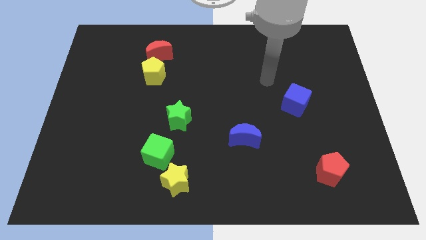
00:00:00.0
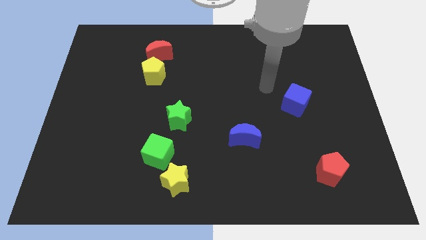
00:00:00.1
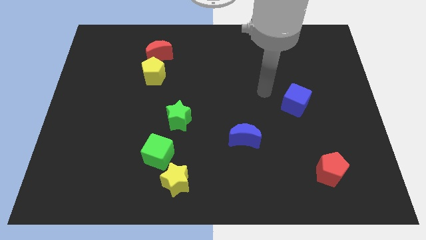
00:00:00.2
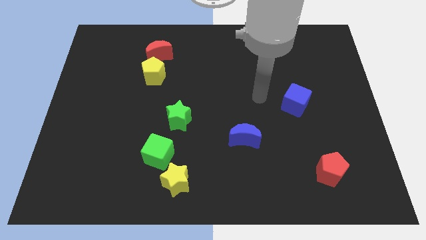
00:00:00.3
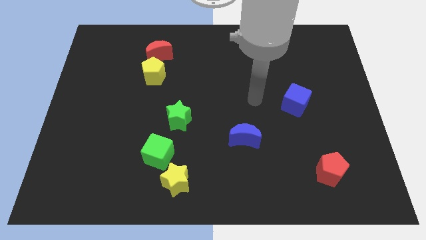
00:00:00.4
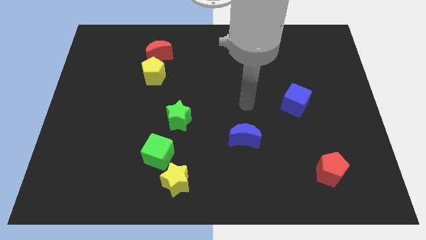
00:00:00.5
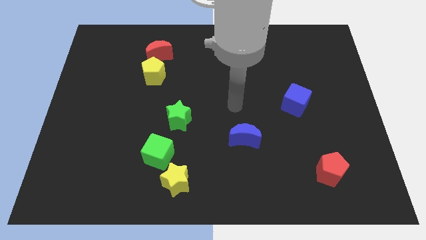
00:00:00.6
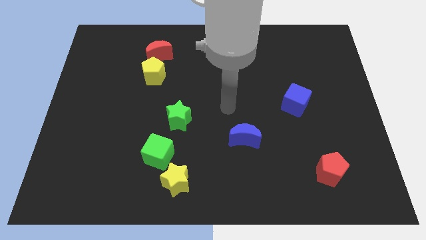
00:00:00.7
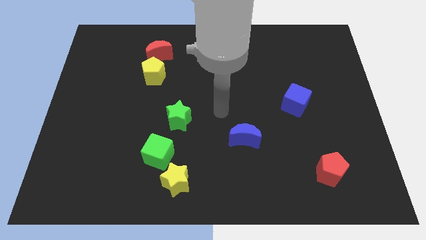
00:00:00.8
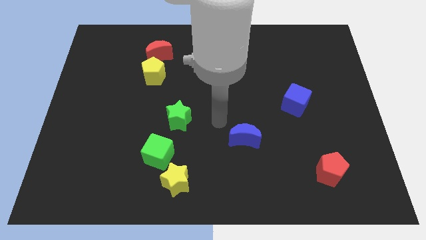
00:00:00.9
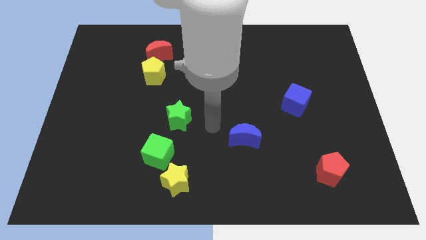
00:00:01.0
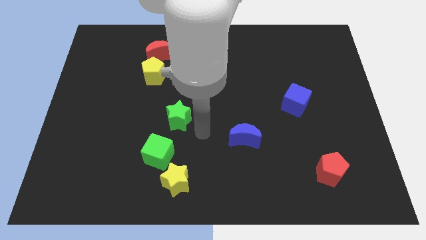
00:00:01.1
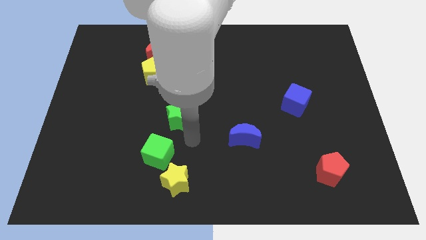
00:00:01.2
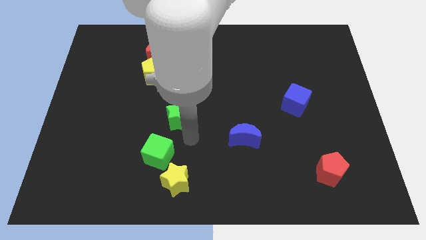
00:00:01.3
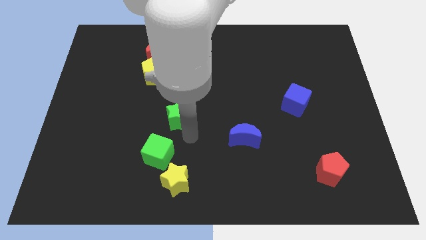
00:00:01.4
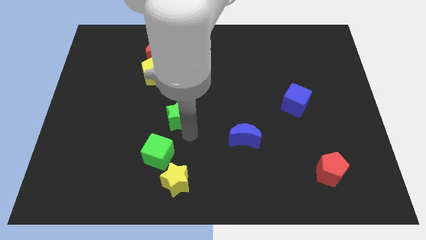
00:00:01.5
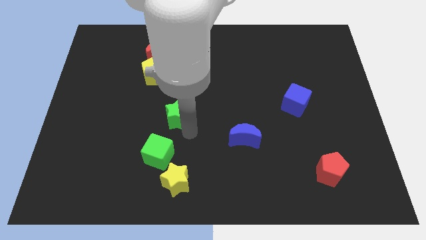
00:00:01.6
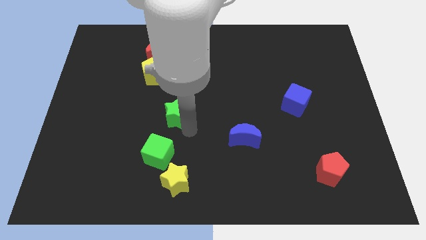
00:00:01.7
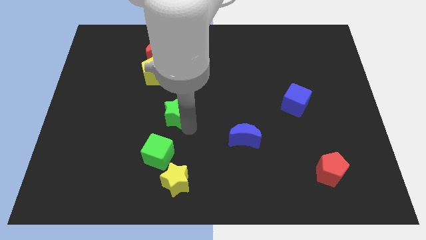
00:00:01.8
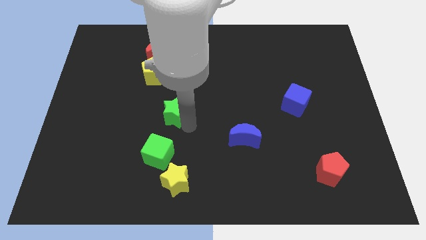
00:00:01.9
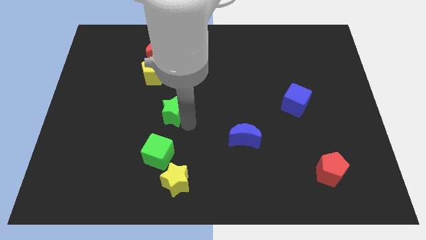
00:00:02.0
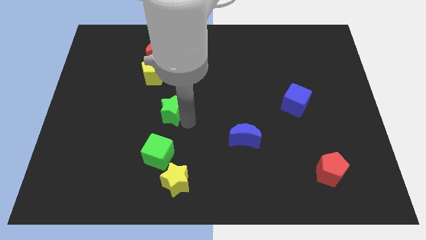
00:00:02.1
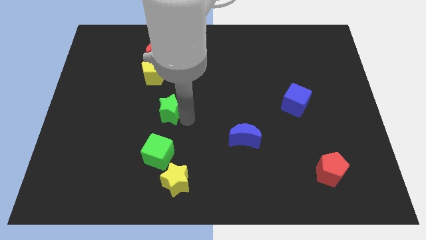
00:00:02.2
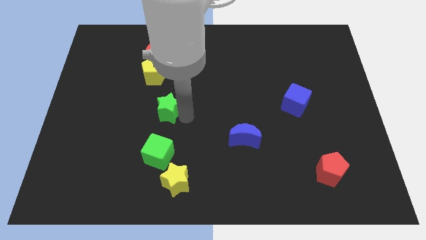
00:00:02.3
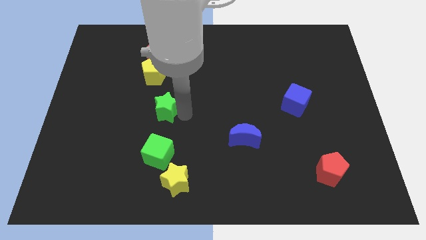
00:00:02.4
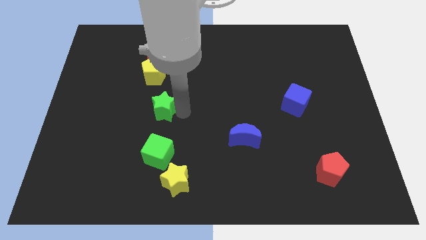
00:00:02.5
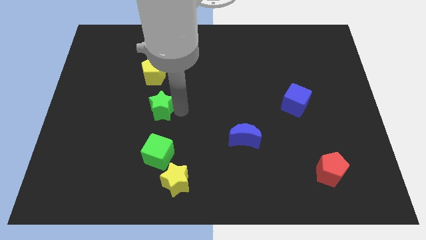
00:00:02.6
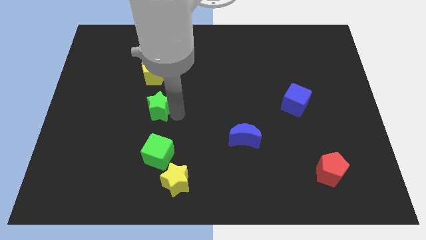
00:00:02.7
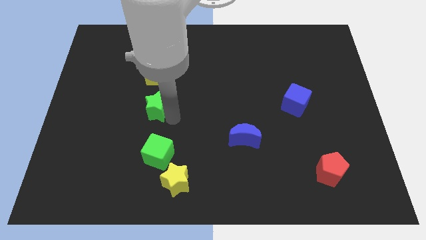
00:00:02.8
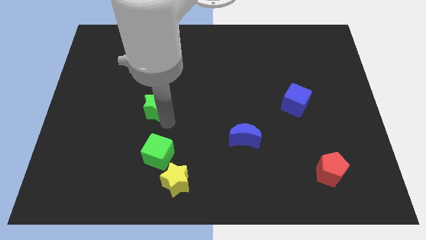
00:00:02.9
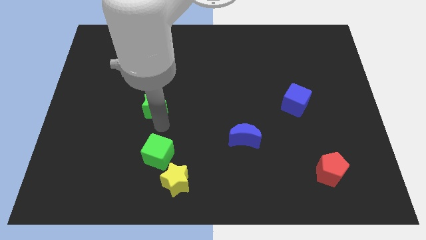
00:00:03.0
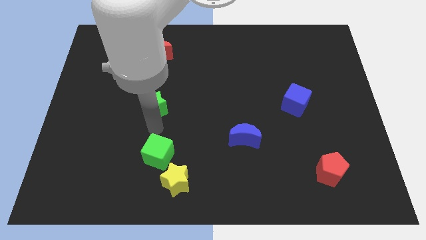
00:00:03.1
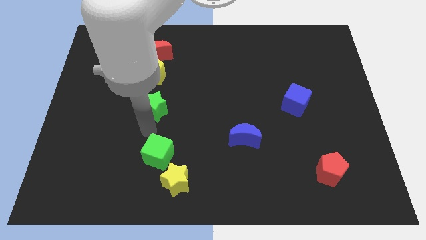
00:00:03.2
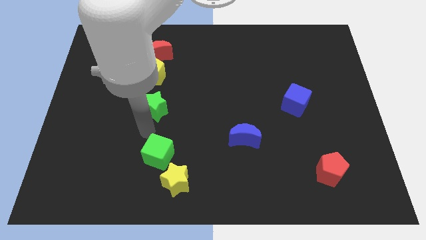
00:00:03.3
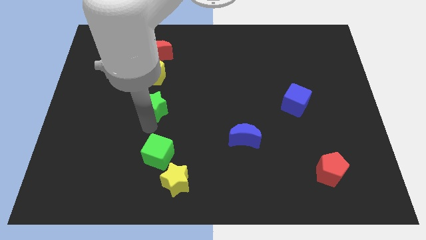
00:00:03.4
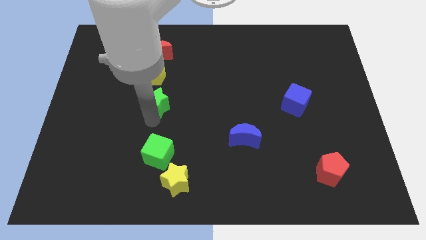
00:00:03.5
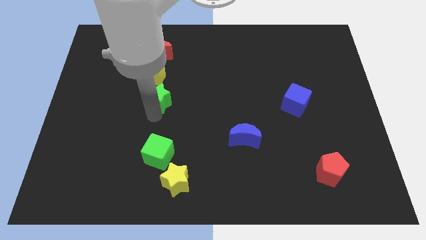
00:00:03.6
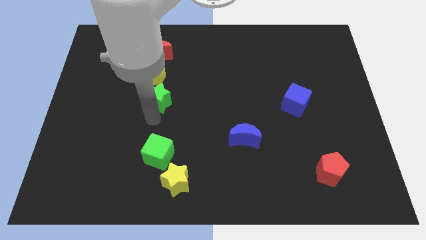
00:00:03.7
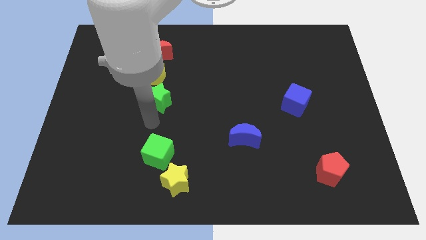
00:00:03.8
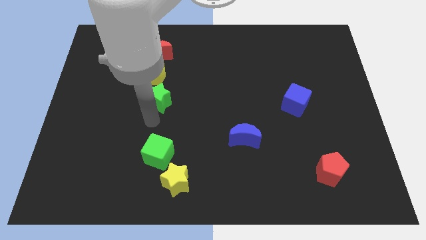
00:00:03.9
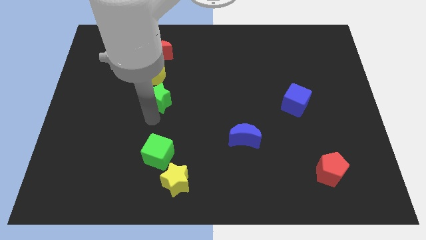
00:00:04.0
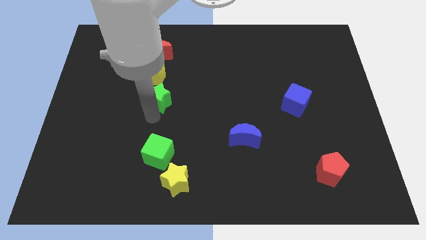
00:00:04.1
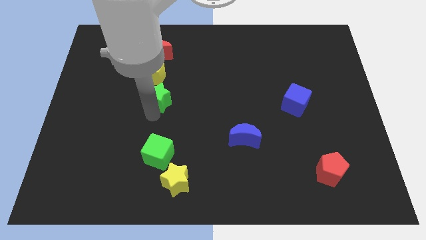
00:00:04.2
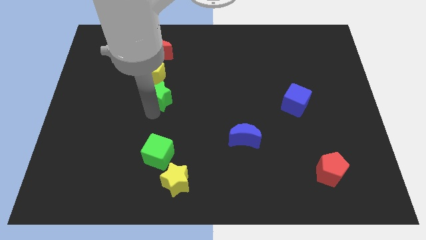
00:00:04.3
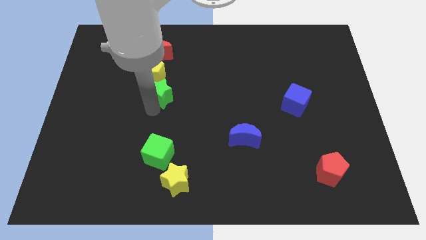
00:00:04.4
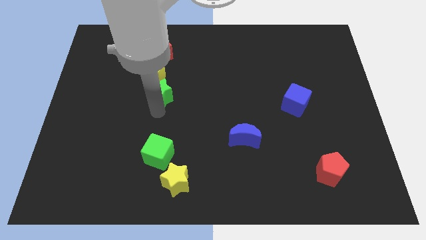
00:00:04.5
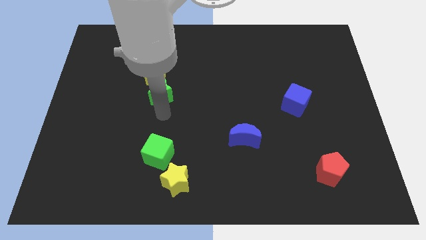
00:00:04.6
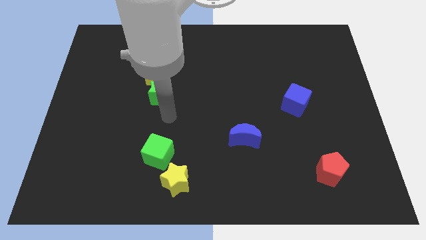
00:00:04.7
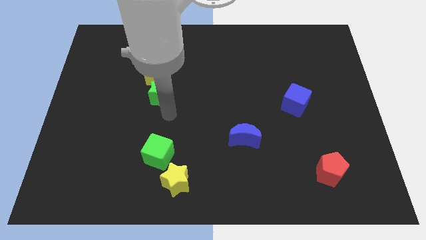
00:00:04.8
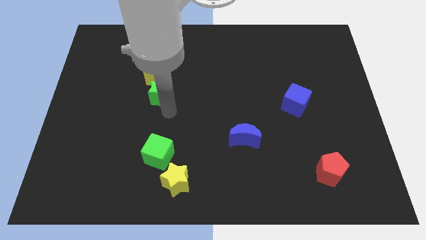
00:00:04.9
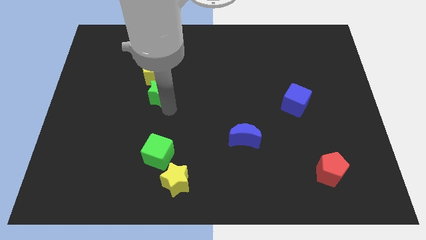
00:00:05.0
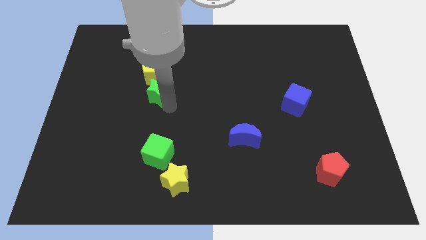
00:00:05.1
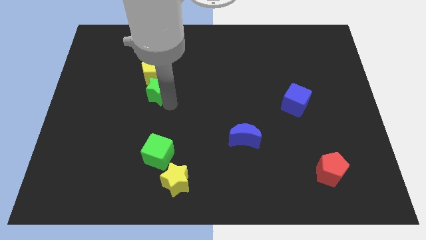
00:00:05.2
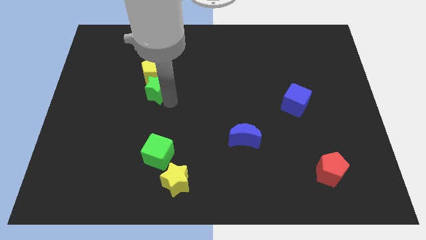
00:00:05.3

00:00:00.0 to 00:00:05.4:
move the green star towards the yellow pentagon

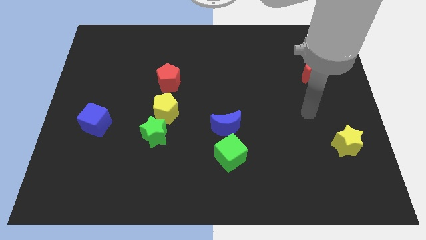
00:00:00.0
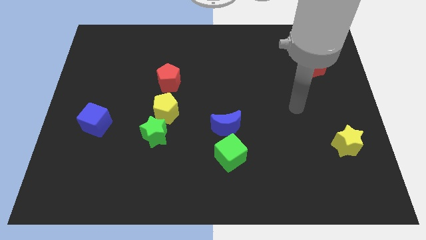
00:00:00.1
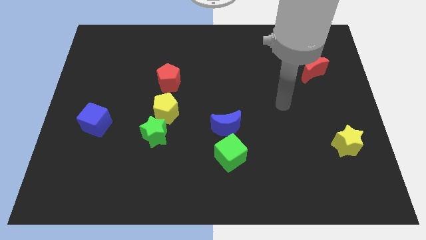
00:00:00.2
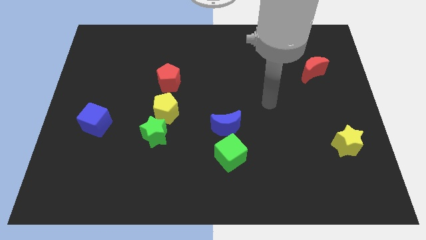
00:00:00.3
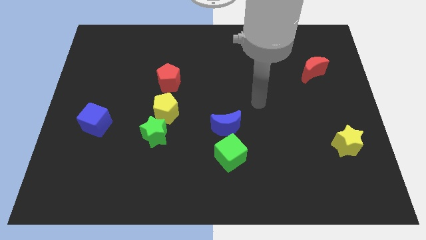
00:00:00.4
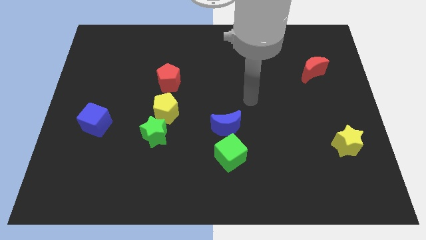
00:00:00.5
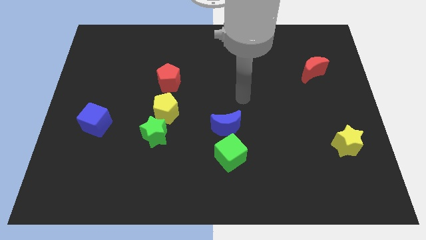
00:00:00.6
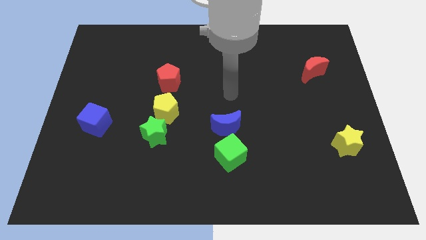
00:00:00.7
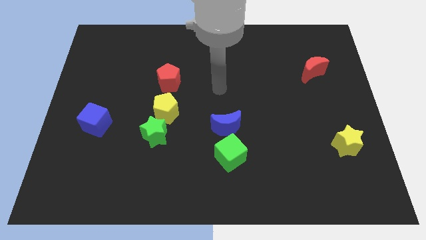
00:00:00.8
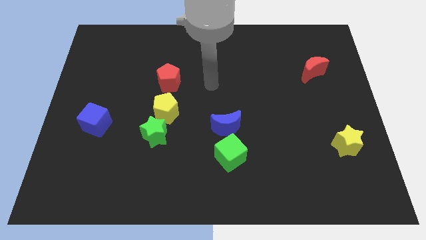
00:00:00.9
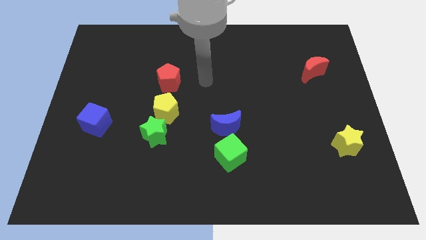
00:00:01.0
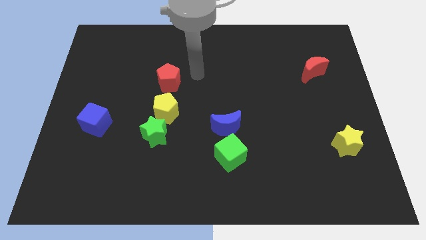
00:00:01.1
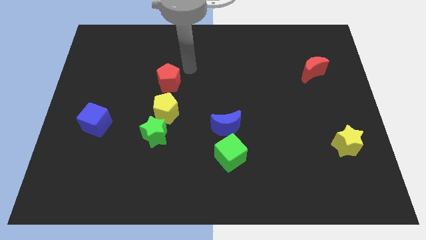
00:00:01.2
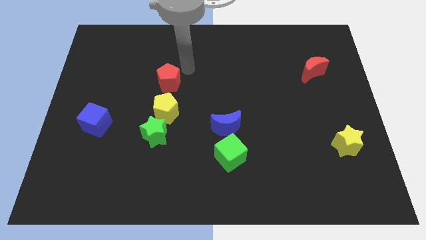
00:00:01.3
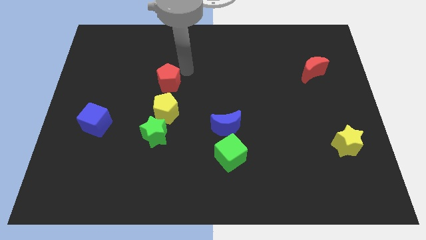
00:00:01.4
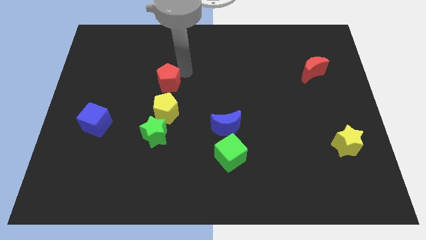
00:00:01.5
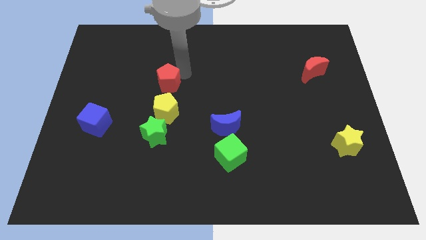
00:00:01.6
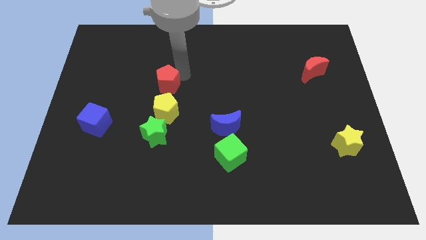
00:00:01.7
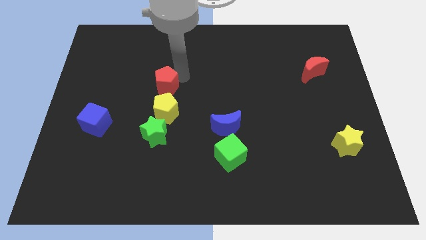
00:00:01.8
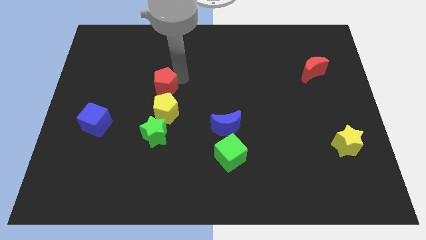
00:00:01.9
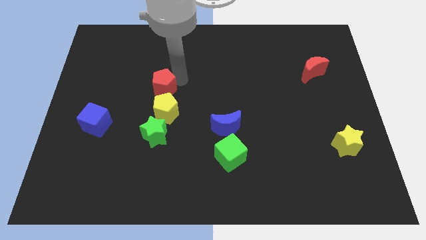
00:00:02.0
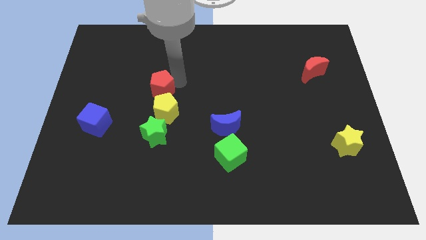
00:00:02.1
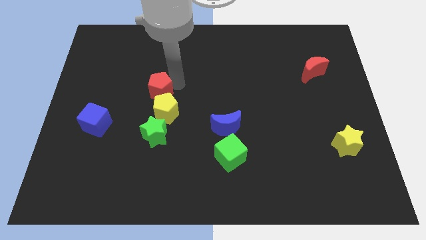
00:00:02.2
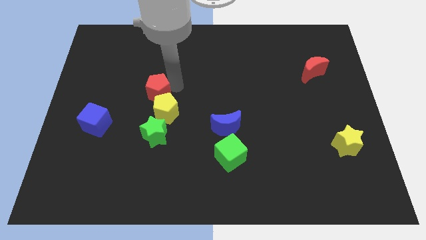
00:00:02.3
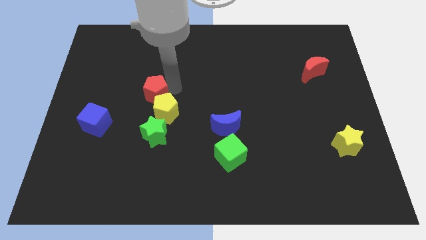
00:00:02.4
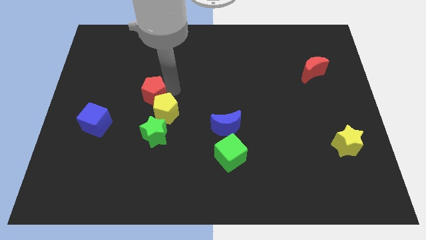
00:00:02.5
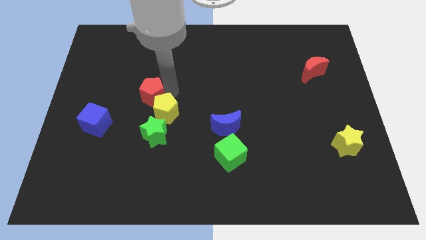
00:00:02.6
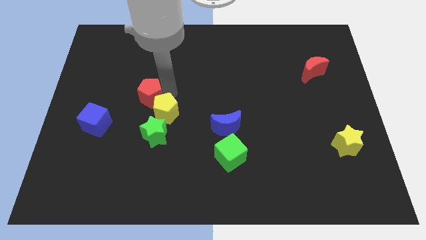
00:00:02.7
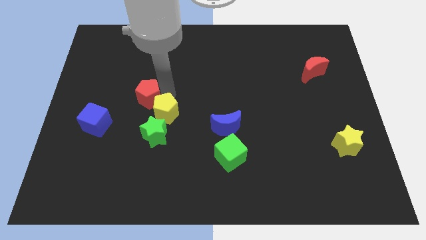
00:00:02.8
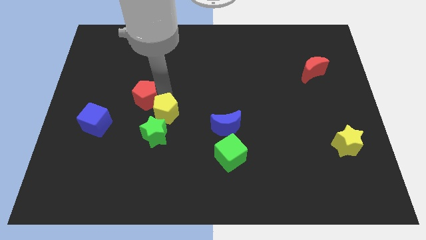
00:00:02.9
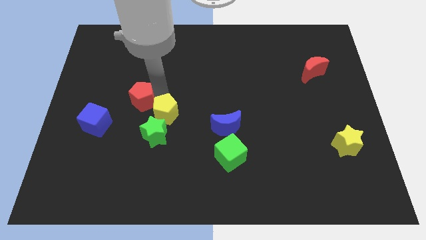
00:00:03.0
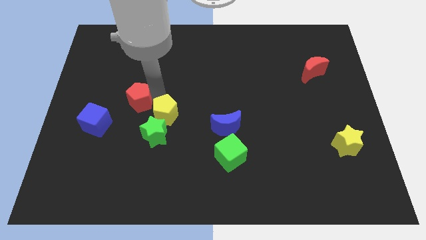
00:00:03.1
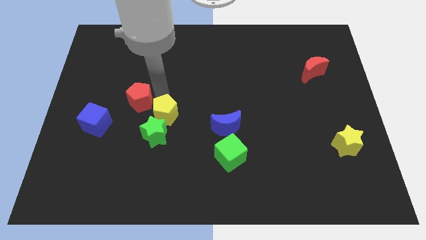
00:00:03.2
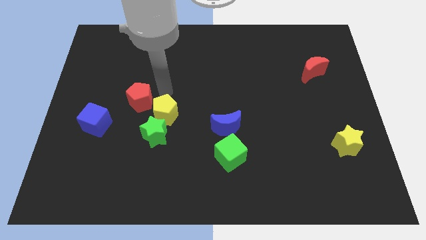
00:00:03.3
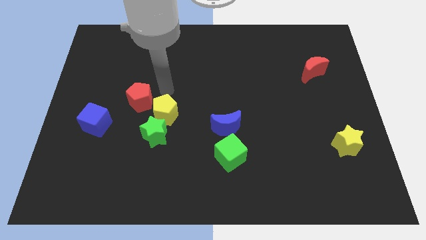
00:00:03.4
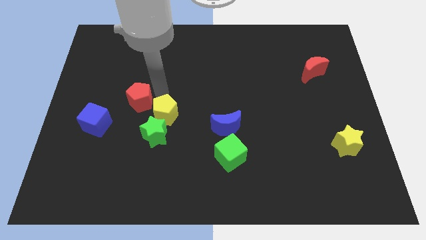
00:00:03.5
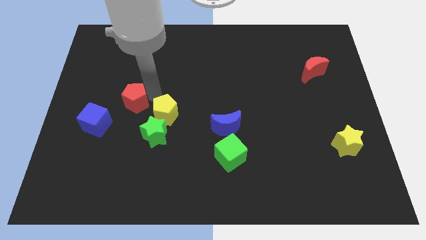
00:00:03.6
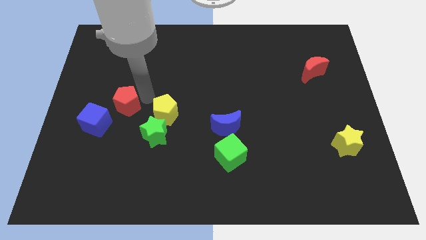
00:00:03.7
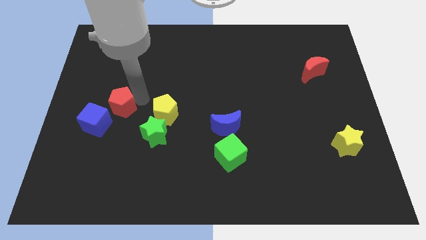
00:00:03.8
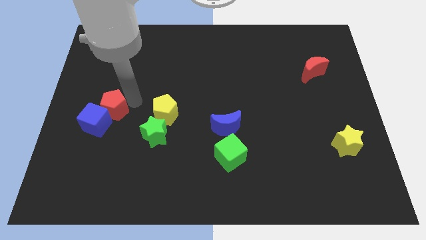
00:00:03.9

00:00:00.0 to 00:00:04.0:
push the red pentagon next to the blue cube
